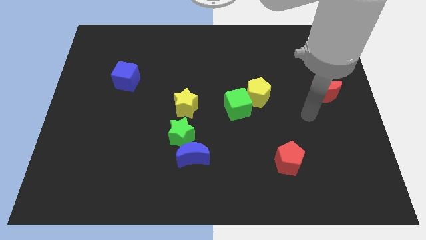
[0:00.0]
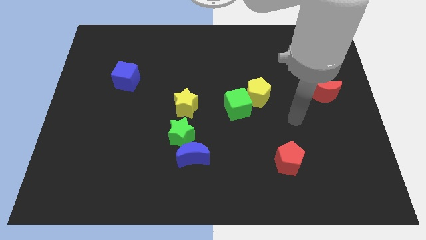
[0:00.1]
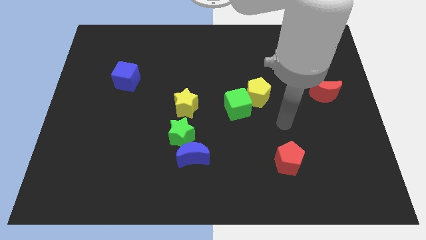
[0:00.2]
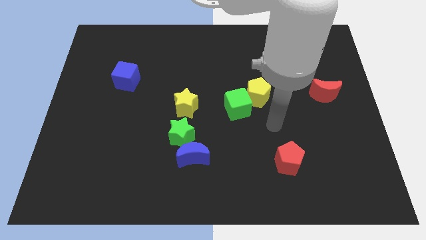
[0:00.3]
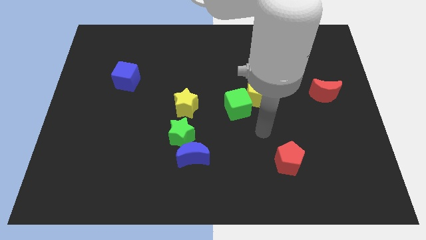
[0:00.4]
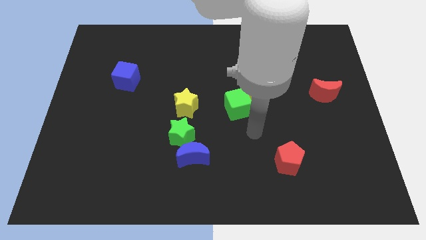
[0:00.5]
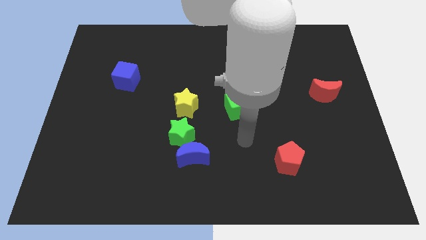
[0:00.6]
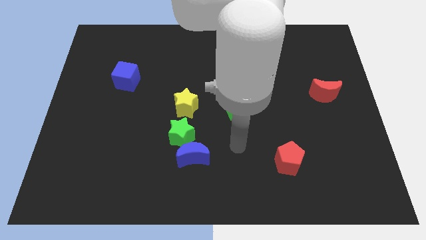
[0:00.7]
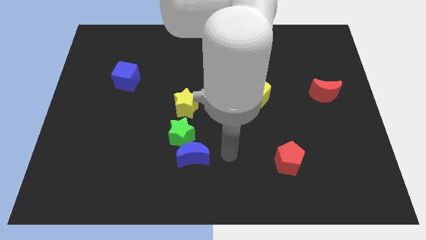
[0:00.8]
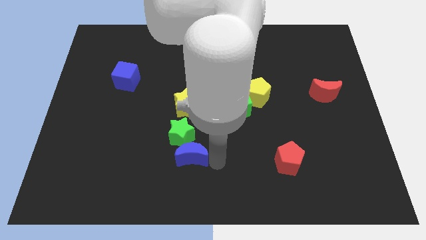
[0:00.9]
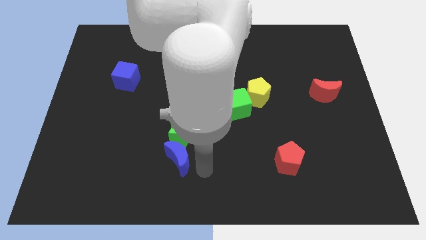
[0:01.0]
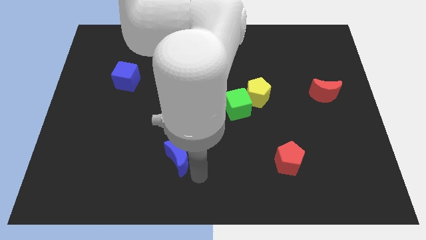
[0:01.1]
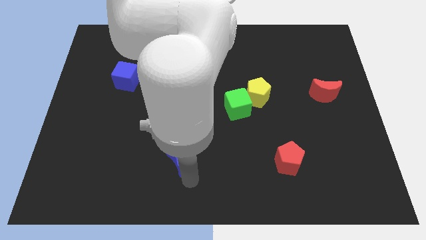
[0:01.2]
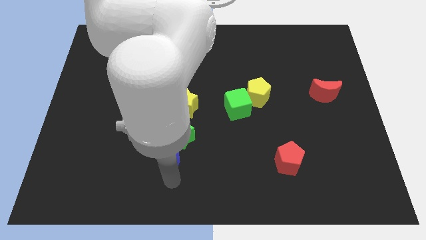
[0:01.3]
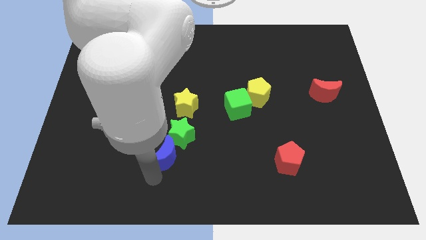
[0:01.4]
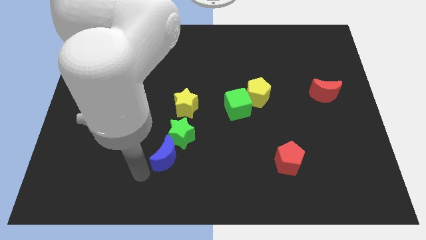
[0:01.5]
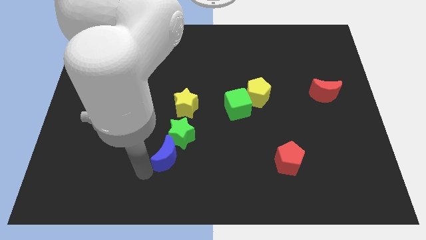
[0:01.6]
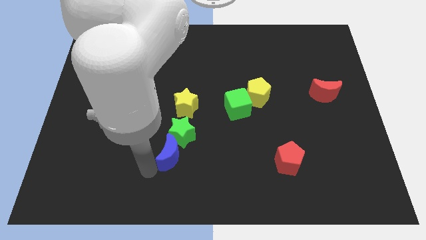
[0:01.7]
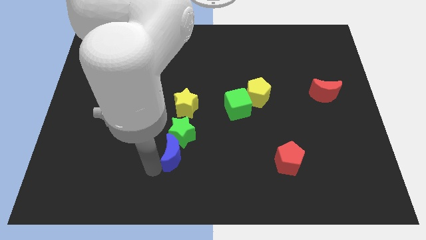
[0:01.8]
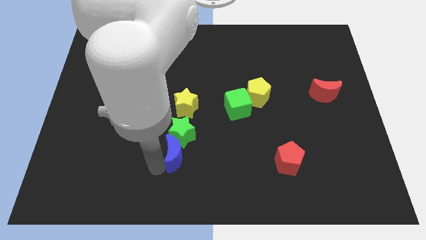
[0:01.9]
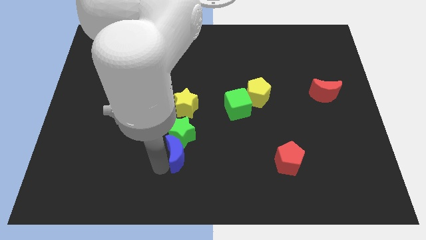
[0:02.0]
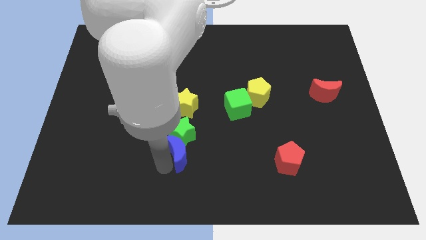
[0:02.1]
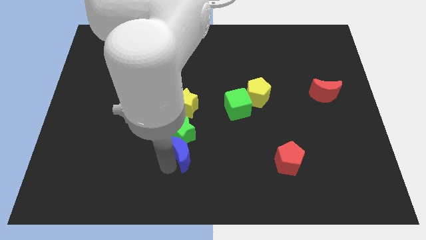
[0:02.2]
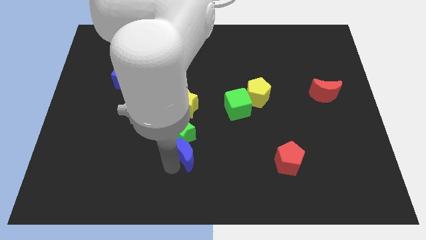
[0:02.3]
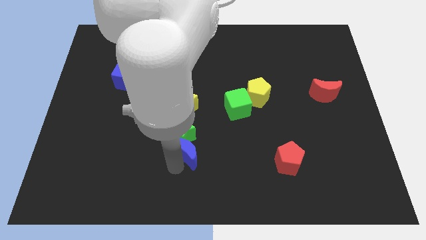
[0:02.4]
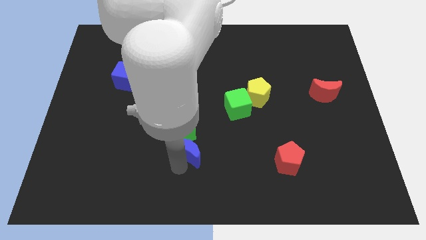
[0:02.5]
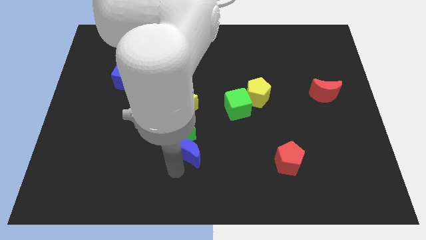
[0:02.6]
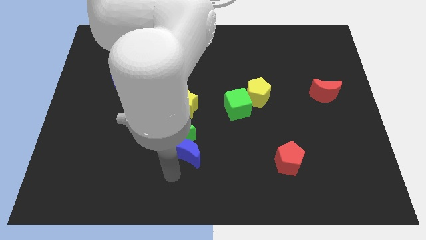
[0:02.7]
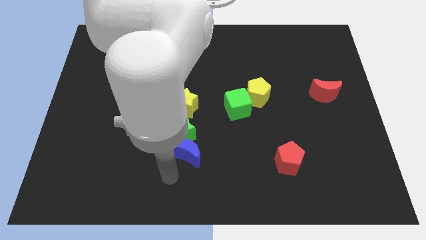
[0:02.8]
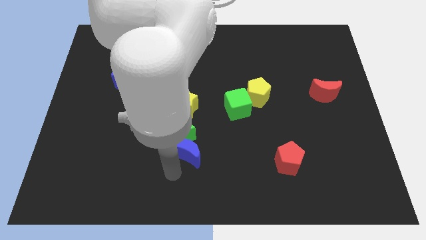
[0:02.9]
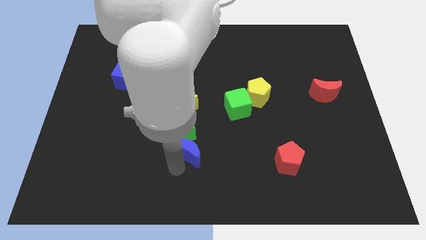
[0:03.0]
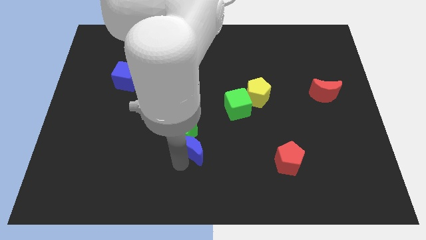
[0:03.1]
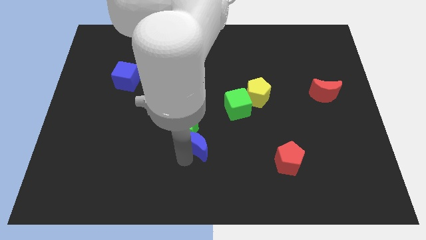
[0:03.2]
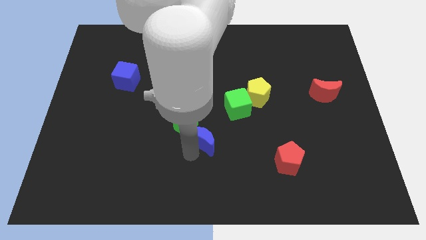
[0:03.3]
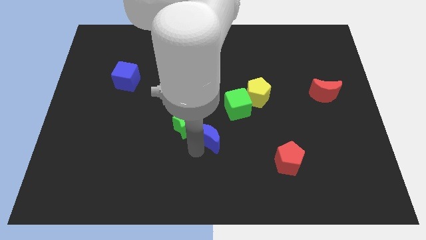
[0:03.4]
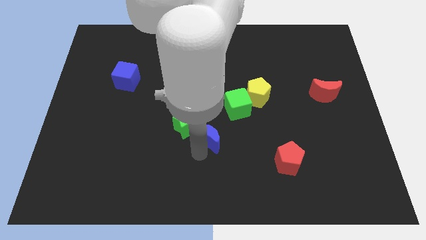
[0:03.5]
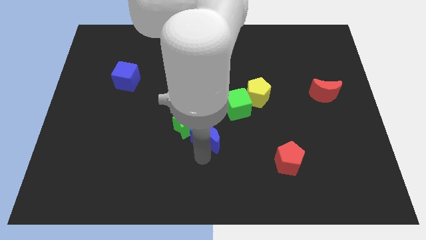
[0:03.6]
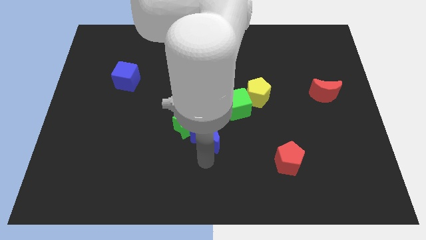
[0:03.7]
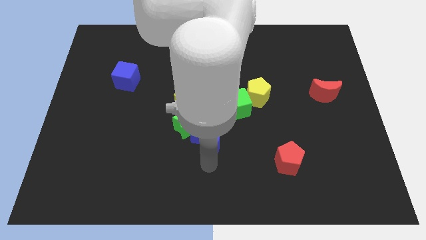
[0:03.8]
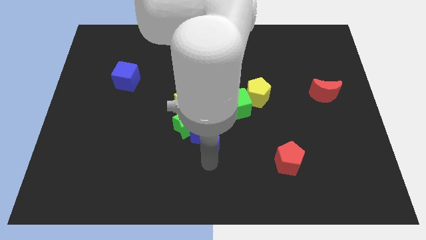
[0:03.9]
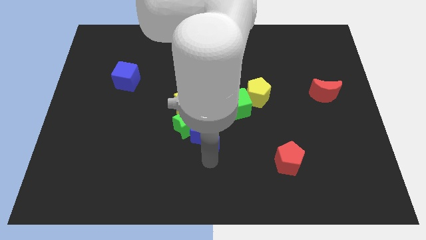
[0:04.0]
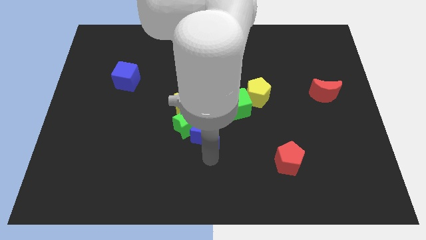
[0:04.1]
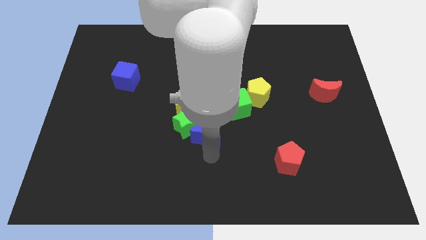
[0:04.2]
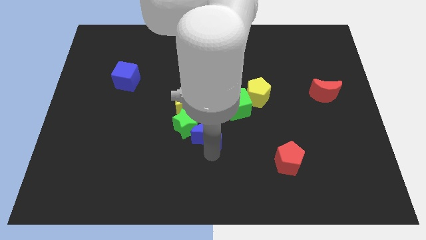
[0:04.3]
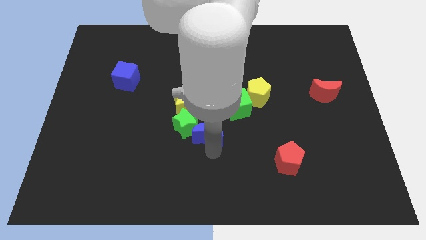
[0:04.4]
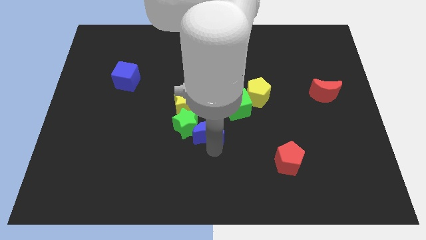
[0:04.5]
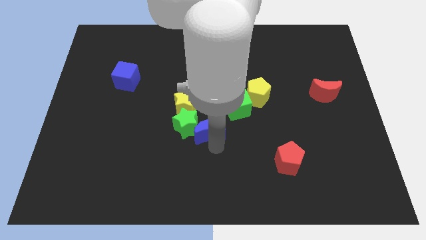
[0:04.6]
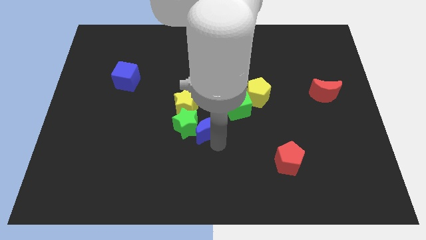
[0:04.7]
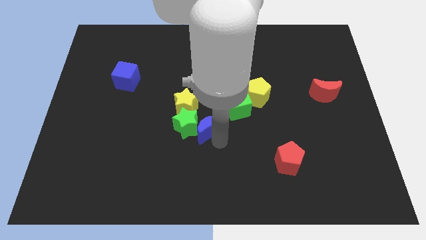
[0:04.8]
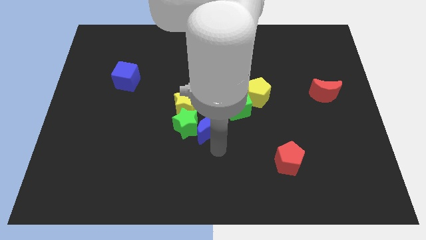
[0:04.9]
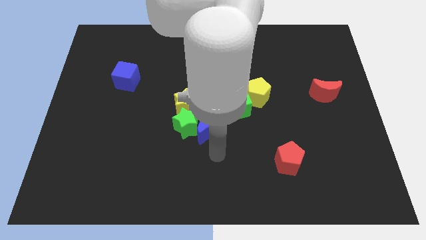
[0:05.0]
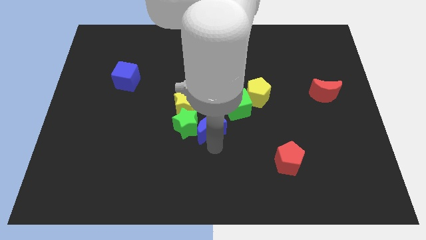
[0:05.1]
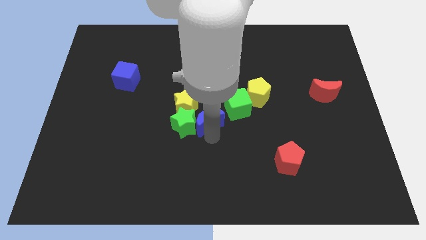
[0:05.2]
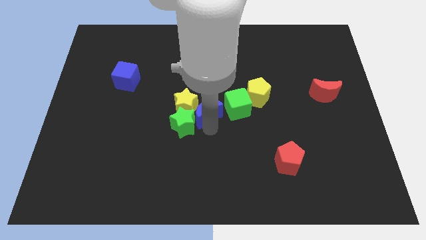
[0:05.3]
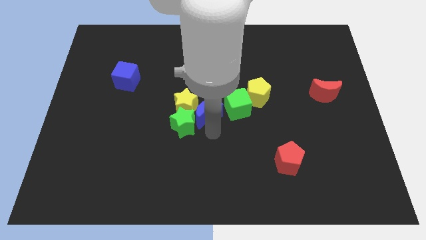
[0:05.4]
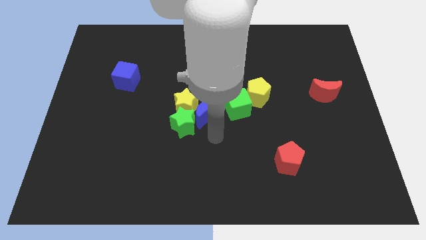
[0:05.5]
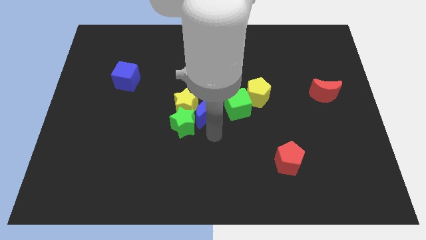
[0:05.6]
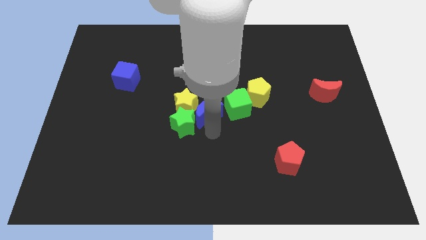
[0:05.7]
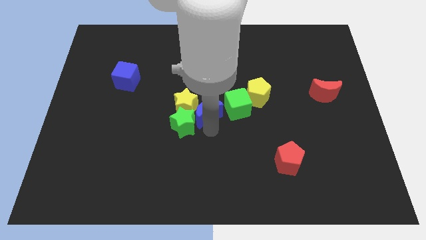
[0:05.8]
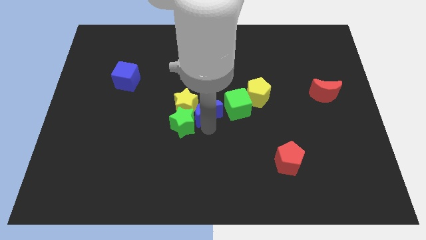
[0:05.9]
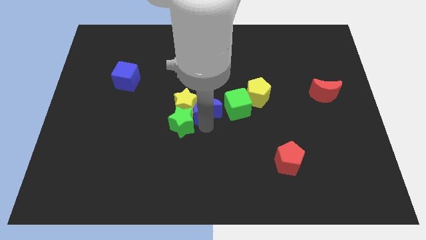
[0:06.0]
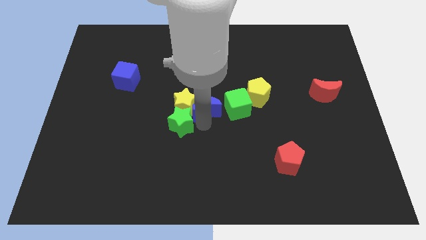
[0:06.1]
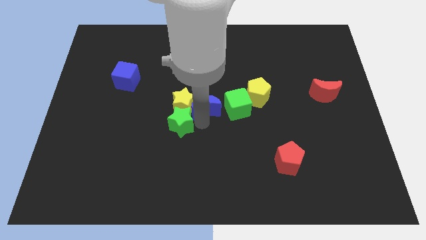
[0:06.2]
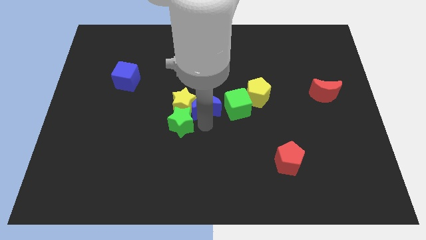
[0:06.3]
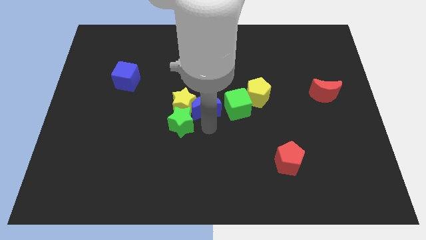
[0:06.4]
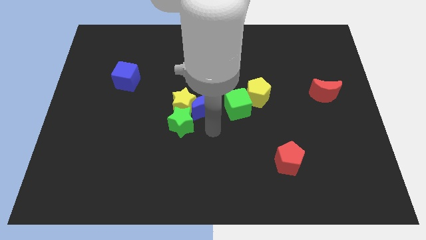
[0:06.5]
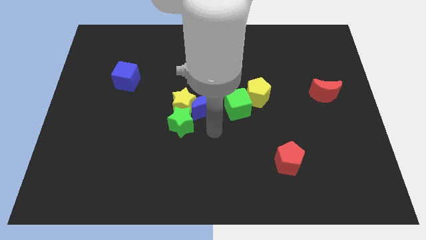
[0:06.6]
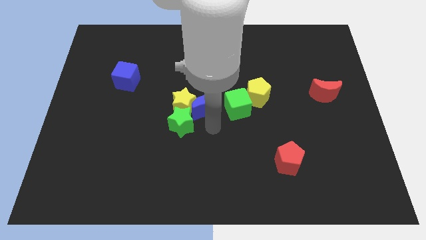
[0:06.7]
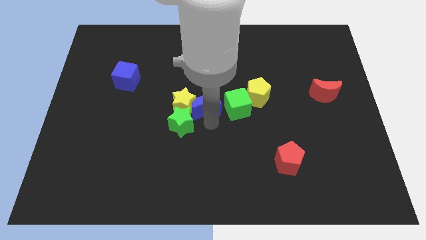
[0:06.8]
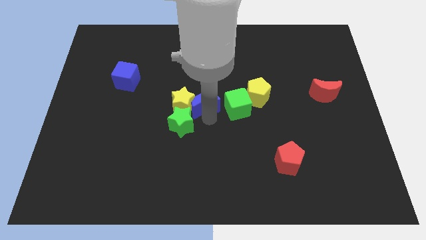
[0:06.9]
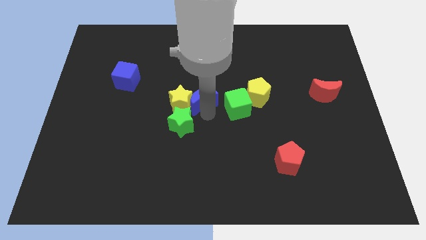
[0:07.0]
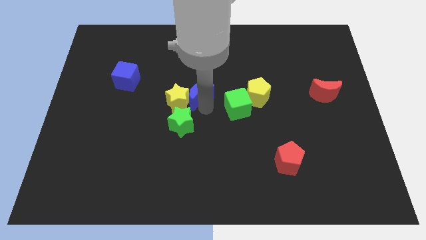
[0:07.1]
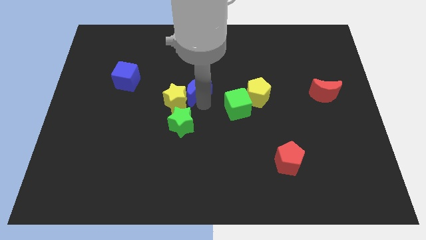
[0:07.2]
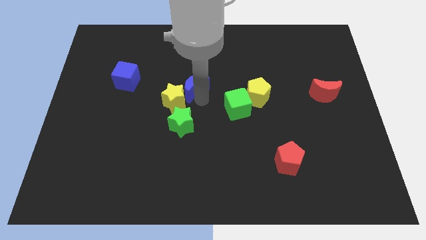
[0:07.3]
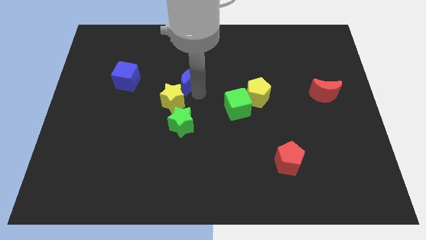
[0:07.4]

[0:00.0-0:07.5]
slide the blue moon above the yellow star
